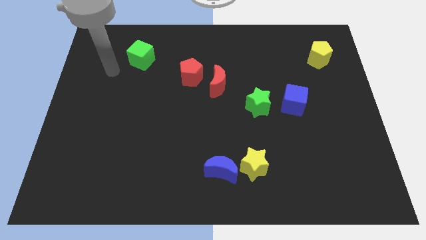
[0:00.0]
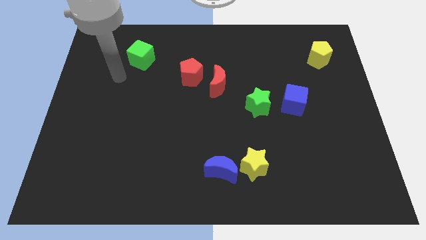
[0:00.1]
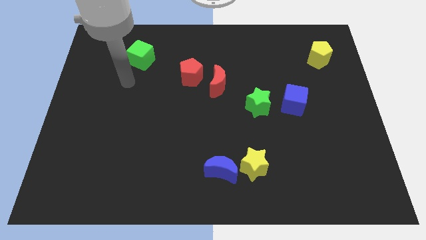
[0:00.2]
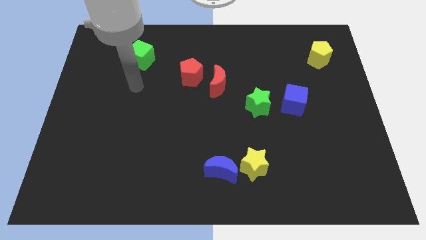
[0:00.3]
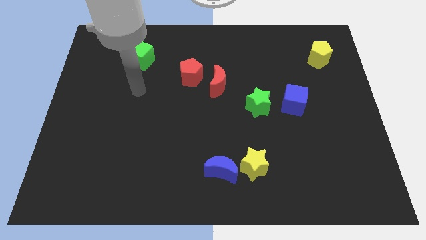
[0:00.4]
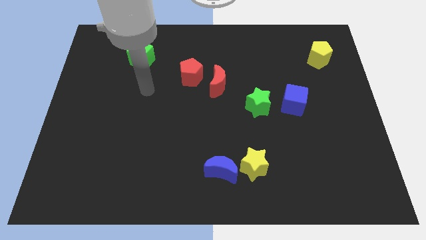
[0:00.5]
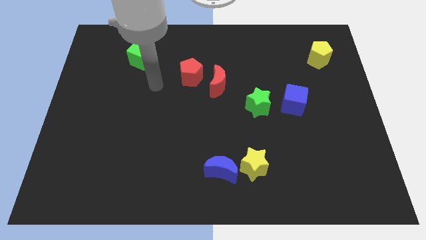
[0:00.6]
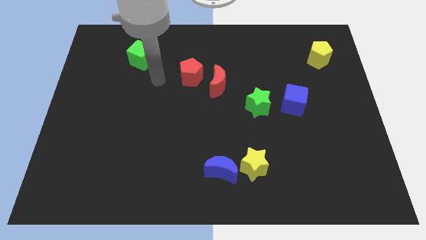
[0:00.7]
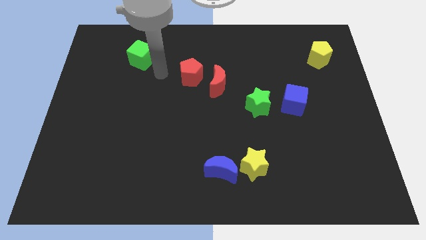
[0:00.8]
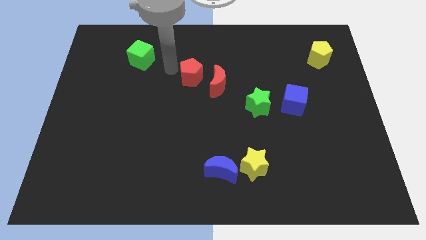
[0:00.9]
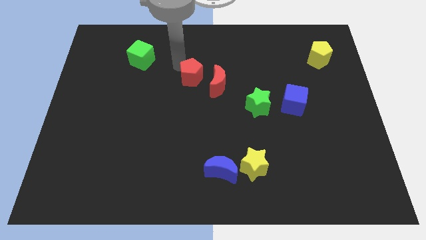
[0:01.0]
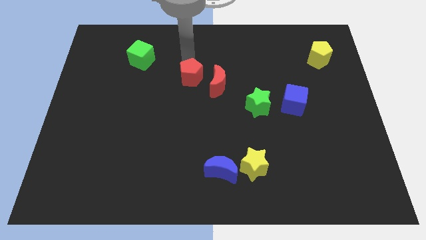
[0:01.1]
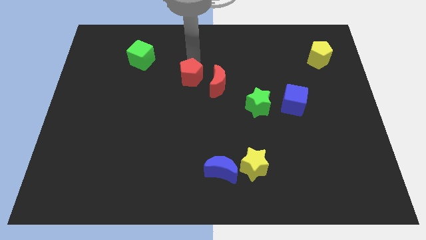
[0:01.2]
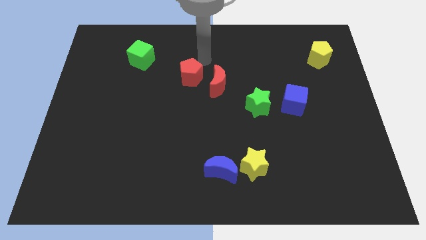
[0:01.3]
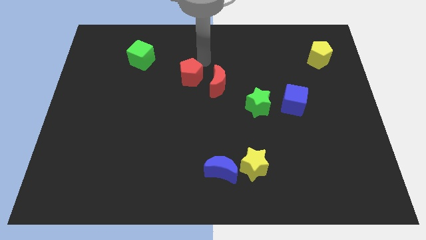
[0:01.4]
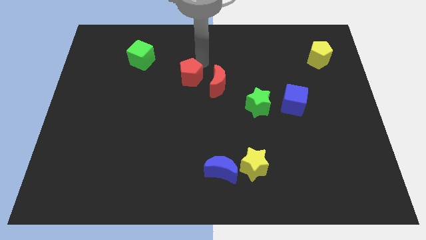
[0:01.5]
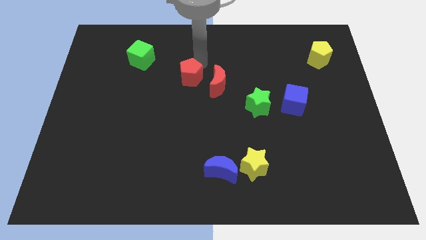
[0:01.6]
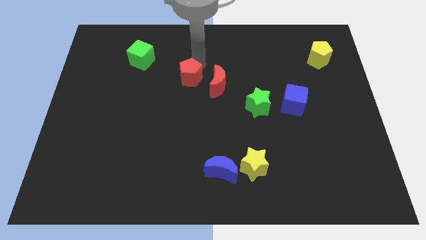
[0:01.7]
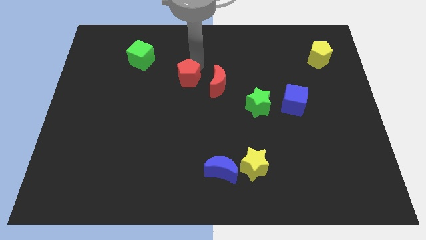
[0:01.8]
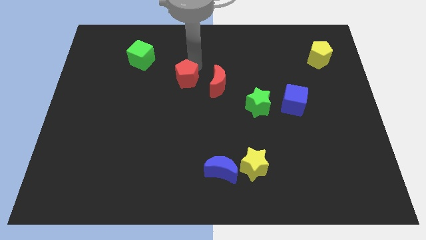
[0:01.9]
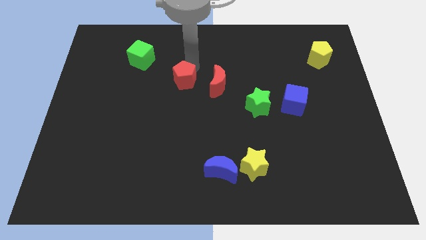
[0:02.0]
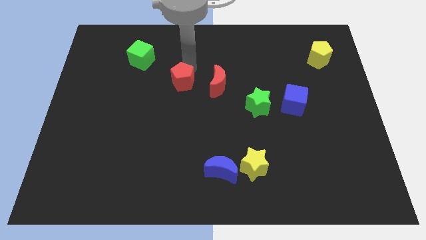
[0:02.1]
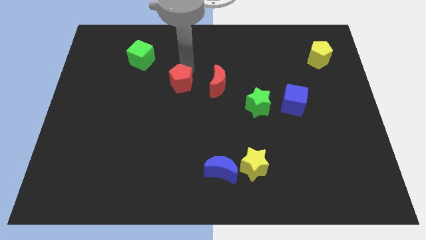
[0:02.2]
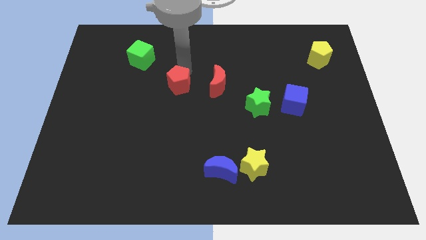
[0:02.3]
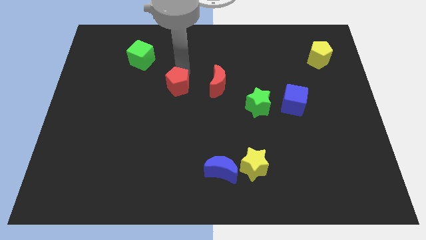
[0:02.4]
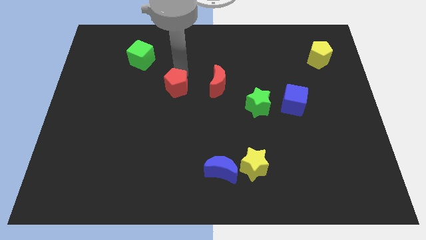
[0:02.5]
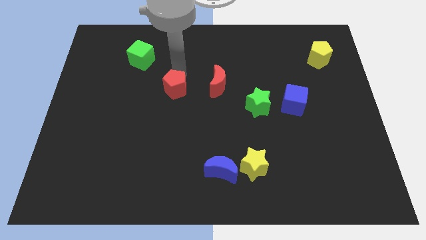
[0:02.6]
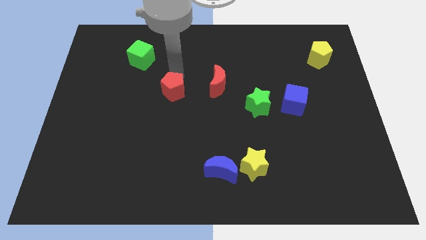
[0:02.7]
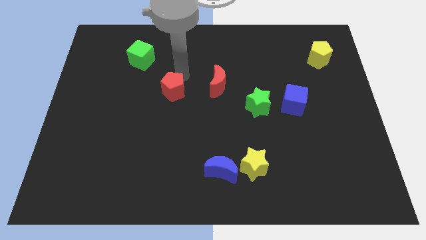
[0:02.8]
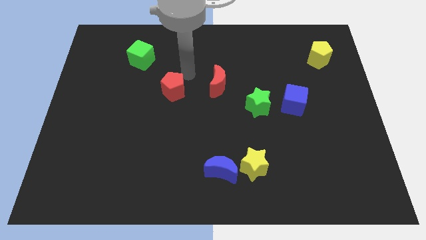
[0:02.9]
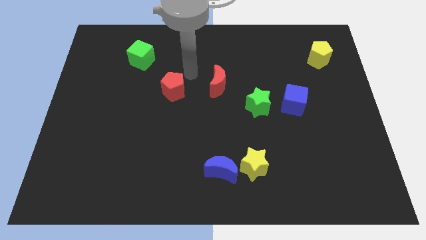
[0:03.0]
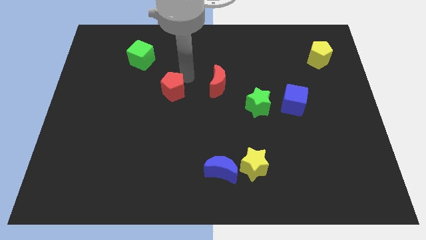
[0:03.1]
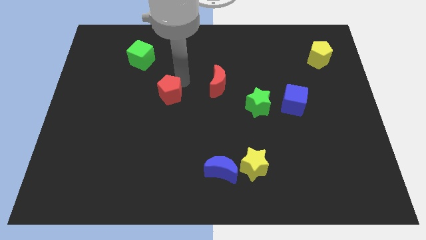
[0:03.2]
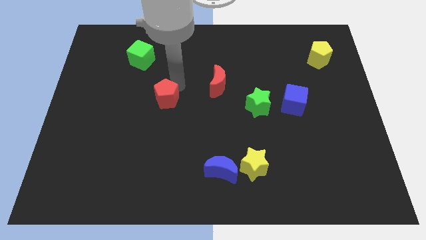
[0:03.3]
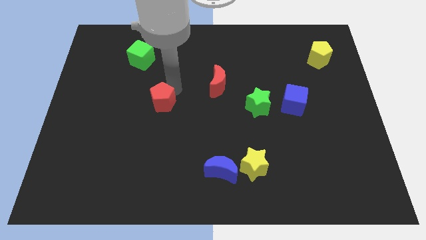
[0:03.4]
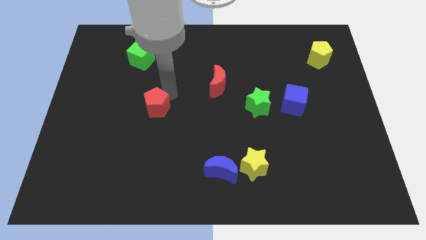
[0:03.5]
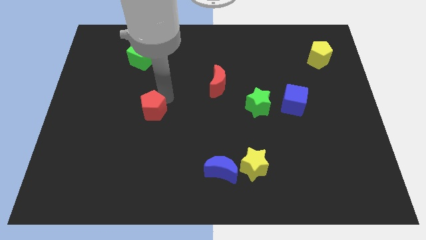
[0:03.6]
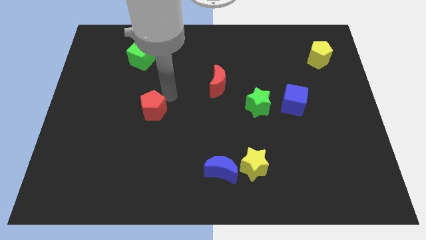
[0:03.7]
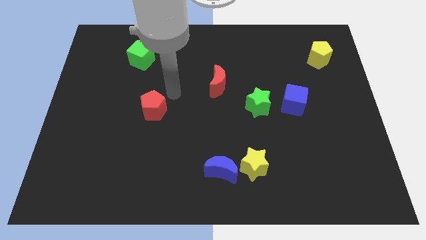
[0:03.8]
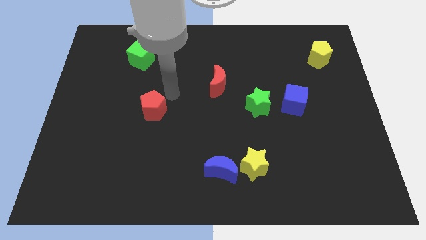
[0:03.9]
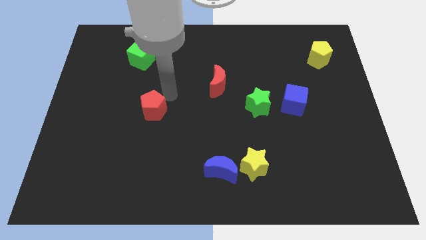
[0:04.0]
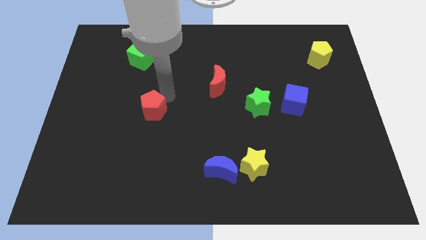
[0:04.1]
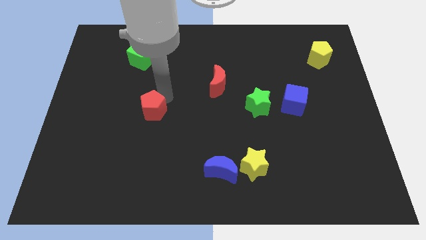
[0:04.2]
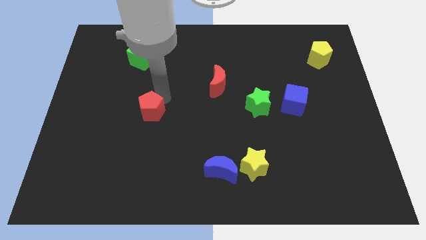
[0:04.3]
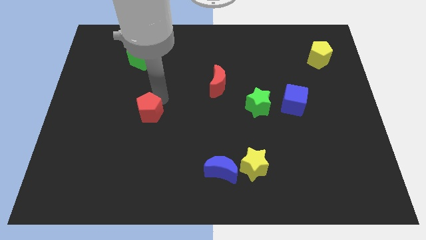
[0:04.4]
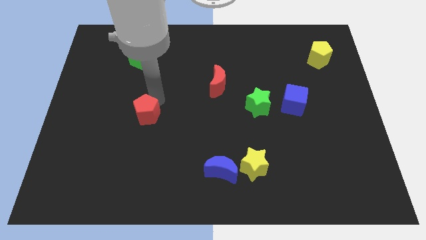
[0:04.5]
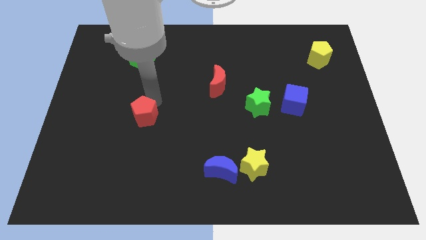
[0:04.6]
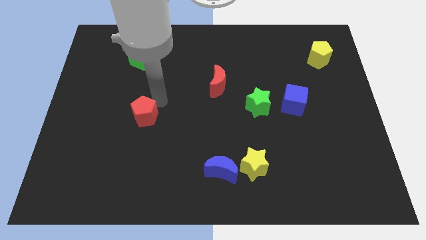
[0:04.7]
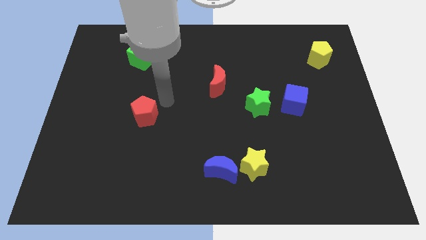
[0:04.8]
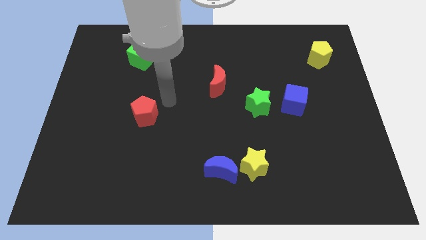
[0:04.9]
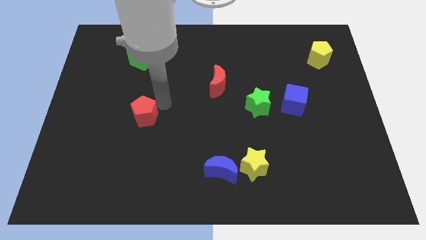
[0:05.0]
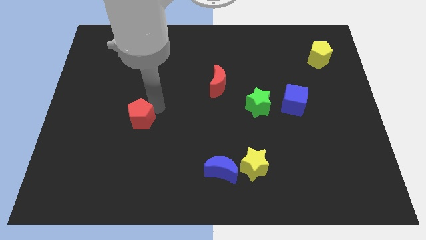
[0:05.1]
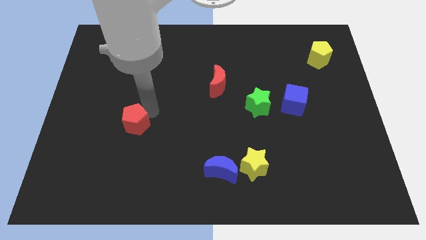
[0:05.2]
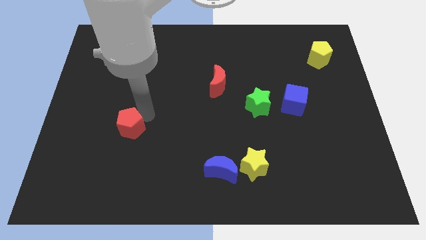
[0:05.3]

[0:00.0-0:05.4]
move the red pentagon down and then left

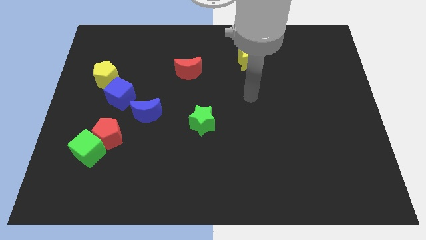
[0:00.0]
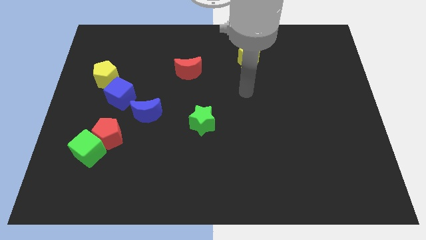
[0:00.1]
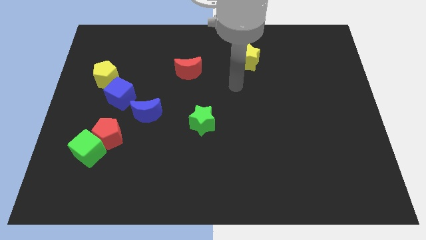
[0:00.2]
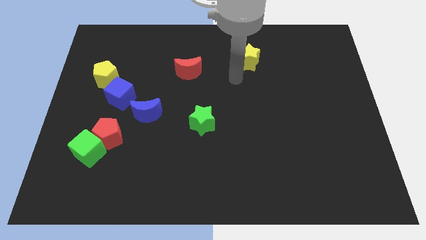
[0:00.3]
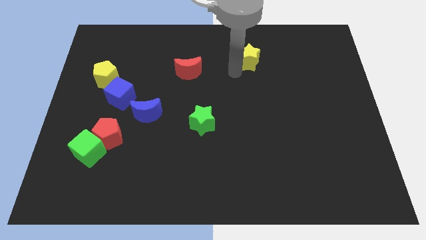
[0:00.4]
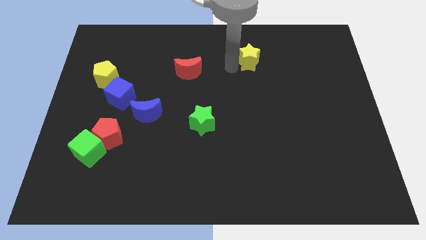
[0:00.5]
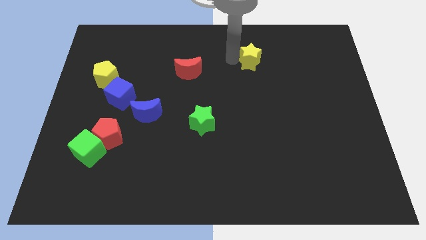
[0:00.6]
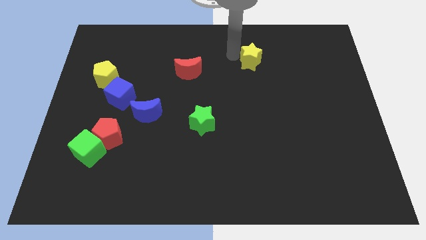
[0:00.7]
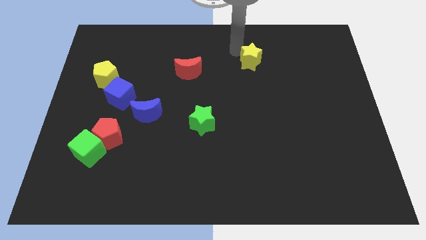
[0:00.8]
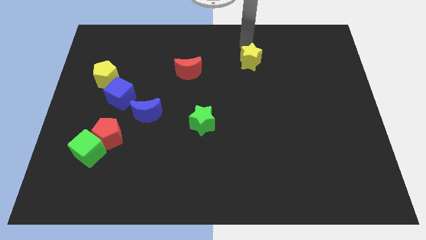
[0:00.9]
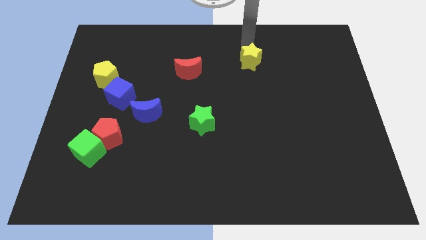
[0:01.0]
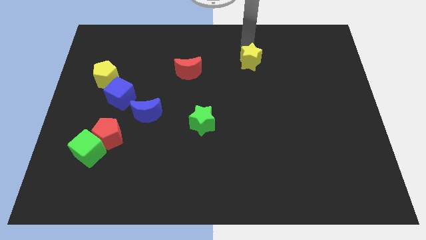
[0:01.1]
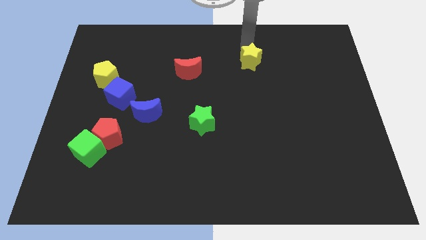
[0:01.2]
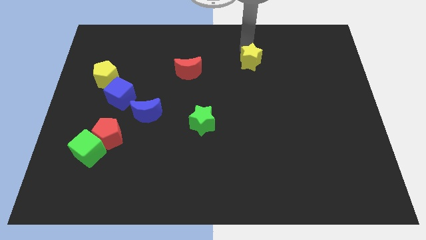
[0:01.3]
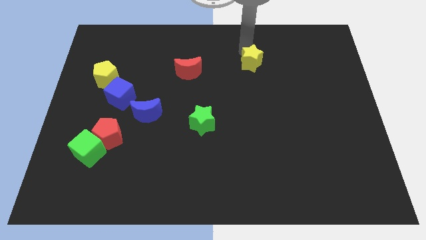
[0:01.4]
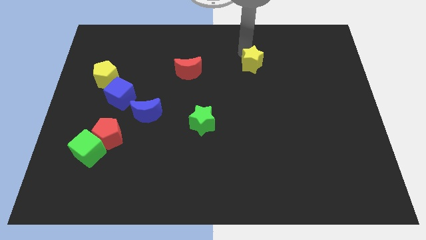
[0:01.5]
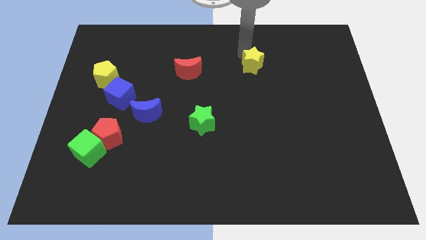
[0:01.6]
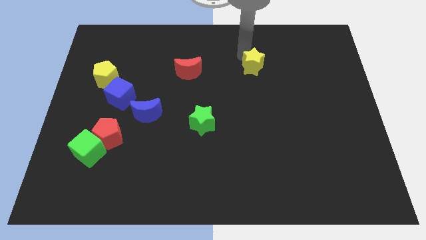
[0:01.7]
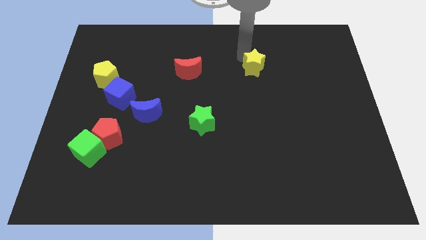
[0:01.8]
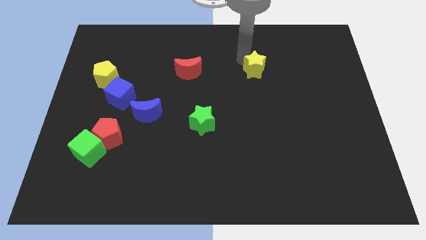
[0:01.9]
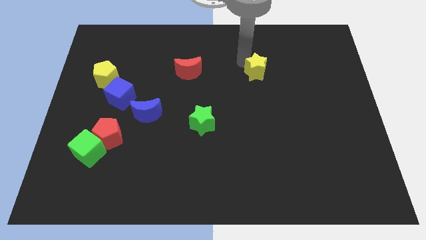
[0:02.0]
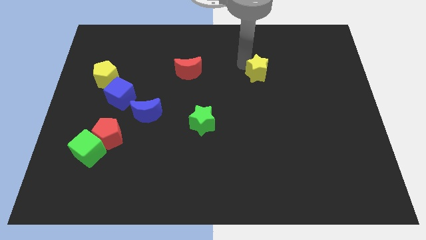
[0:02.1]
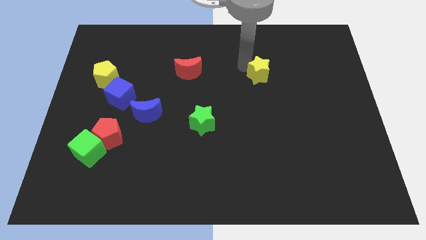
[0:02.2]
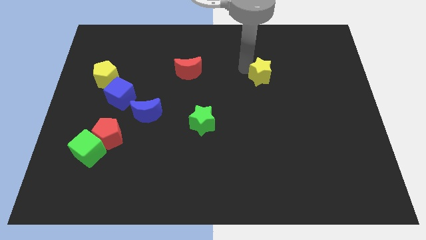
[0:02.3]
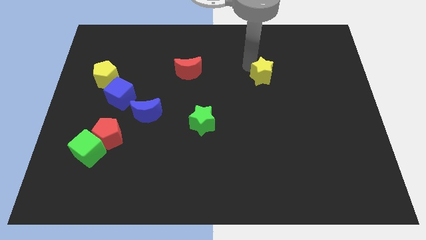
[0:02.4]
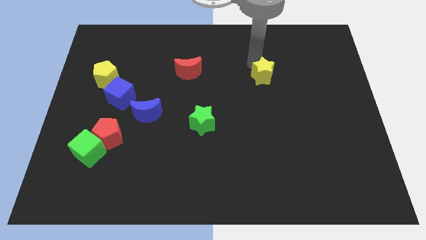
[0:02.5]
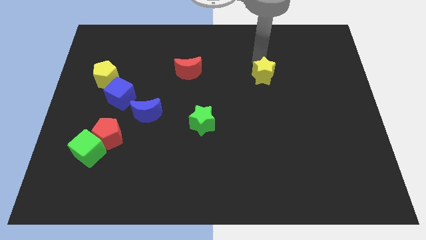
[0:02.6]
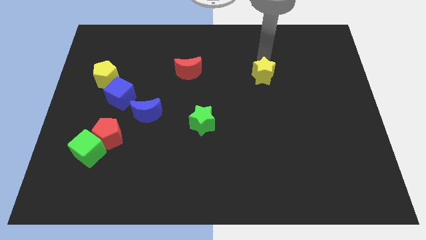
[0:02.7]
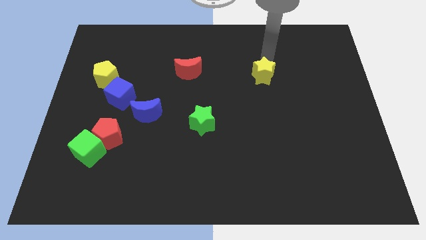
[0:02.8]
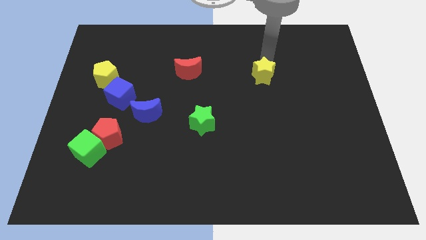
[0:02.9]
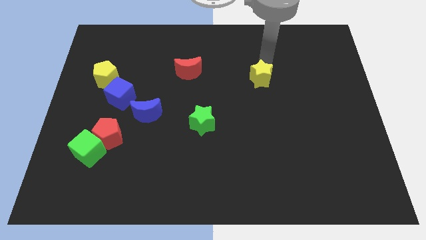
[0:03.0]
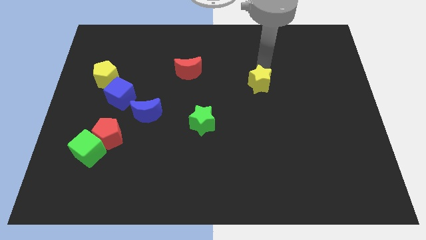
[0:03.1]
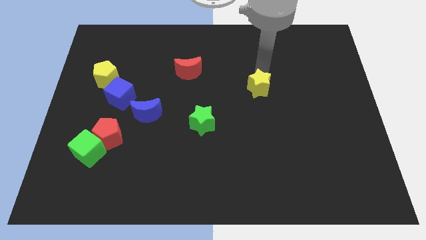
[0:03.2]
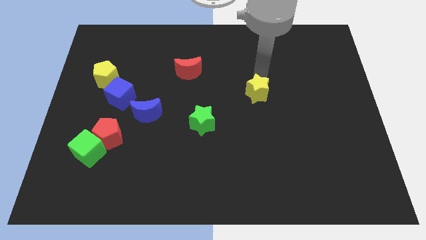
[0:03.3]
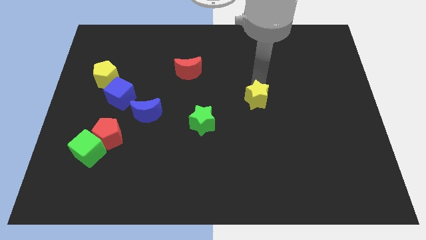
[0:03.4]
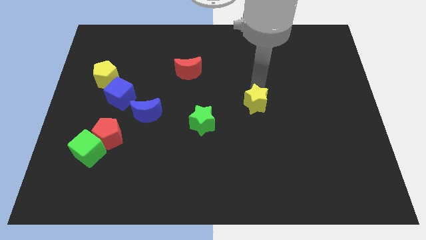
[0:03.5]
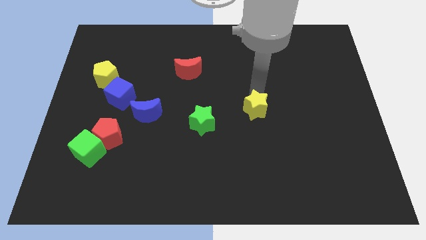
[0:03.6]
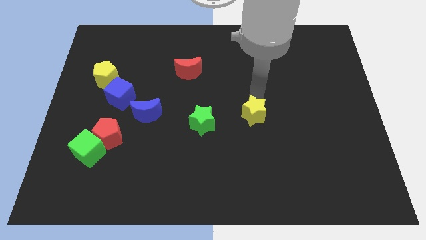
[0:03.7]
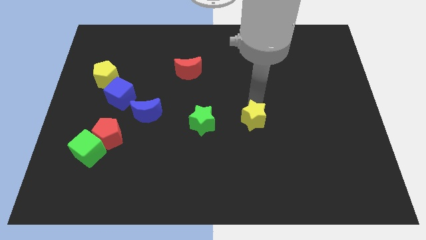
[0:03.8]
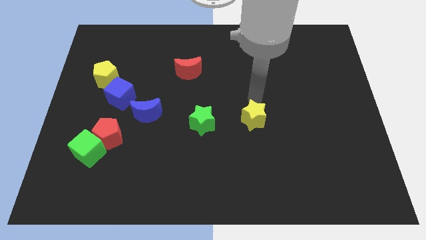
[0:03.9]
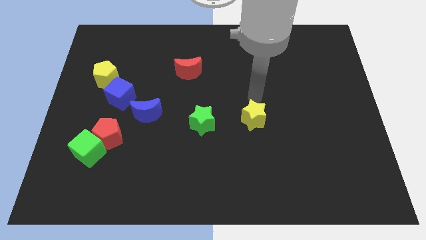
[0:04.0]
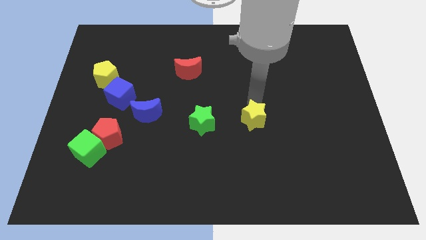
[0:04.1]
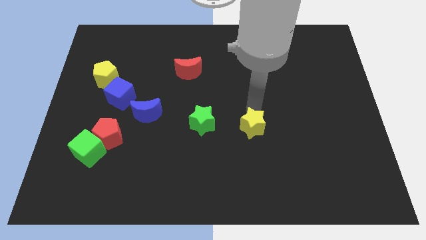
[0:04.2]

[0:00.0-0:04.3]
push the yellow star downwards
